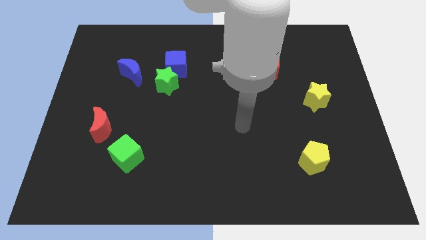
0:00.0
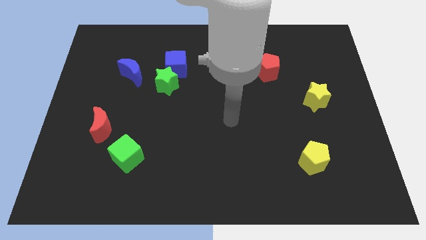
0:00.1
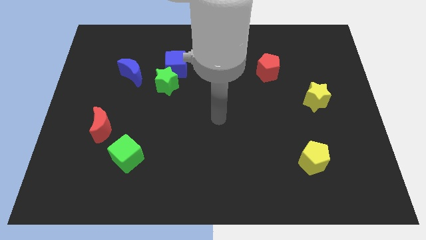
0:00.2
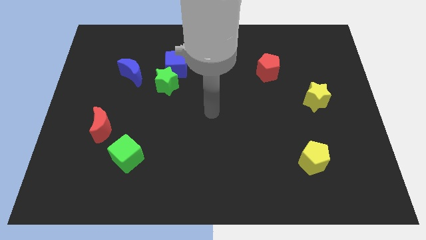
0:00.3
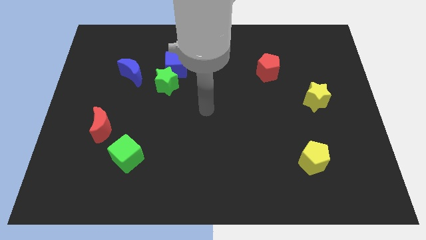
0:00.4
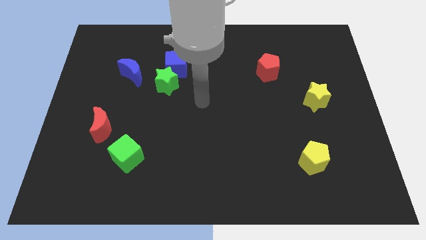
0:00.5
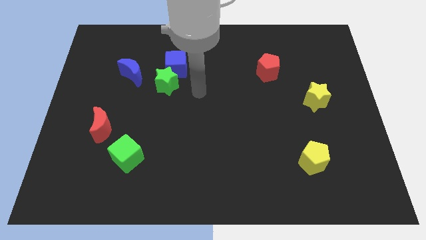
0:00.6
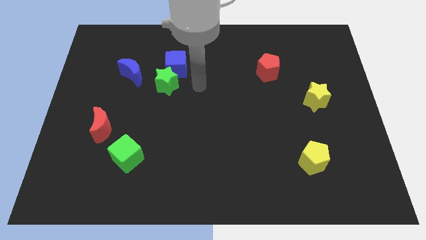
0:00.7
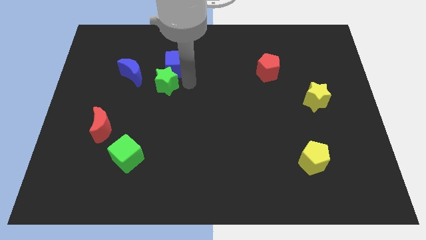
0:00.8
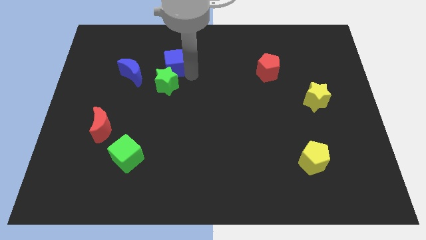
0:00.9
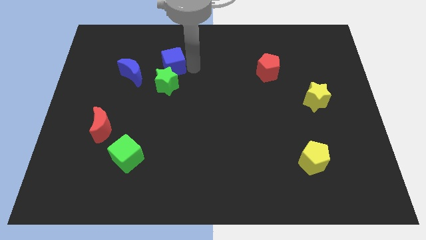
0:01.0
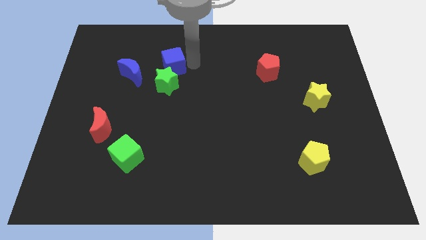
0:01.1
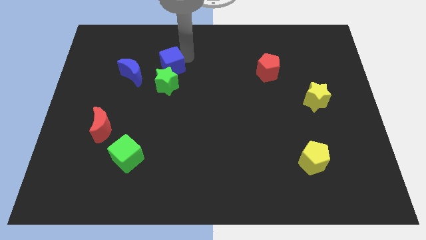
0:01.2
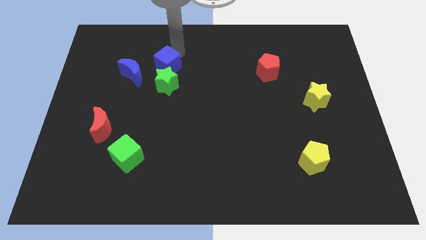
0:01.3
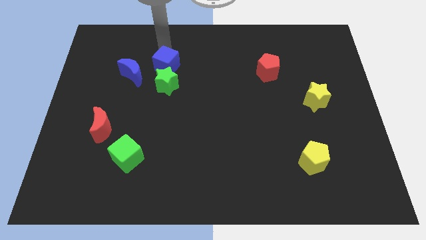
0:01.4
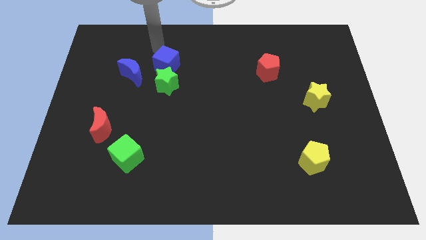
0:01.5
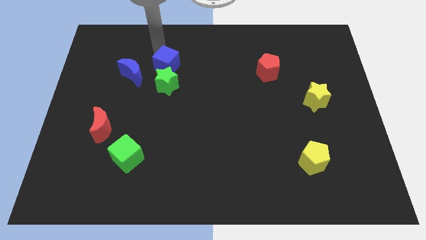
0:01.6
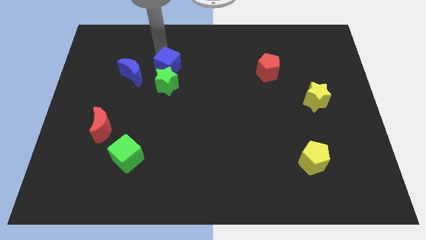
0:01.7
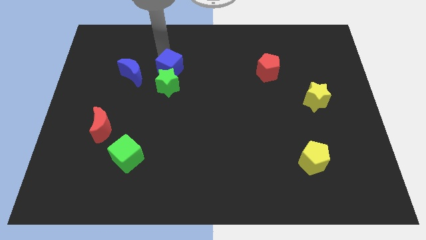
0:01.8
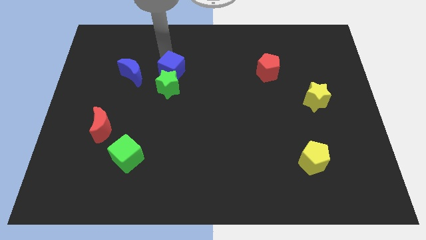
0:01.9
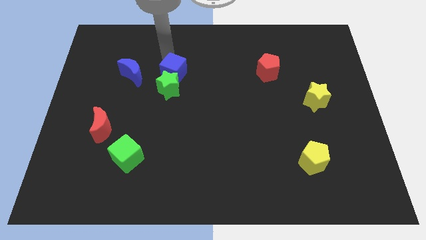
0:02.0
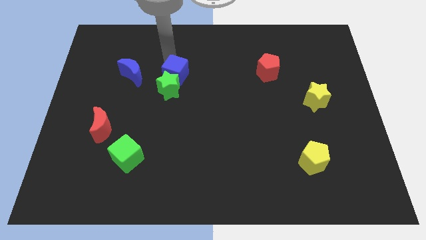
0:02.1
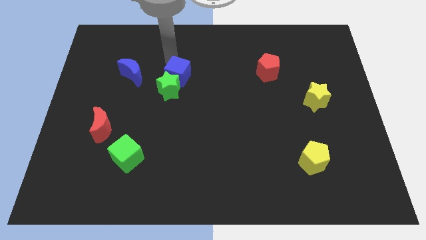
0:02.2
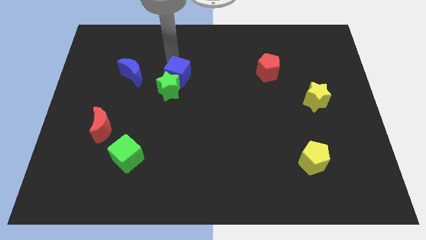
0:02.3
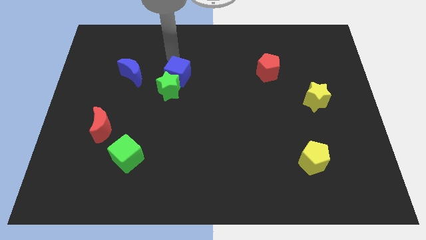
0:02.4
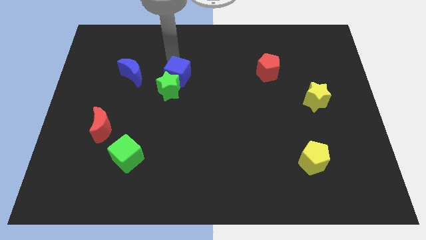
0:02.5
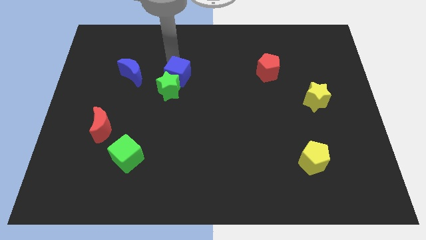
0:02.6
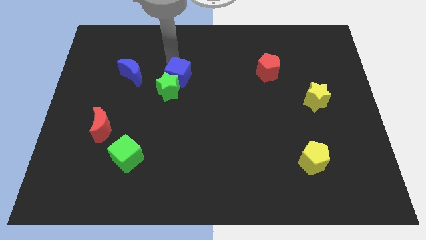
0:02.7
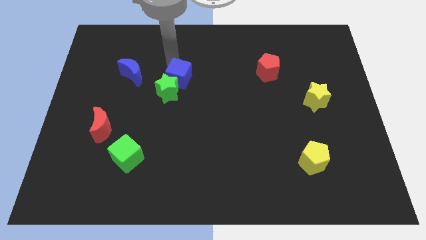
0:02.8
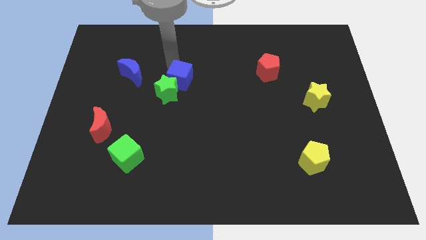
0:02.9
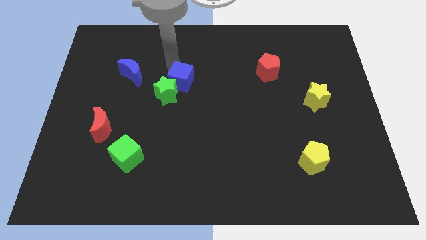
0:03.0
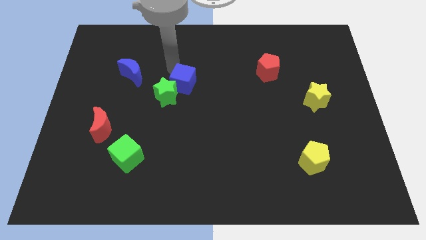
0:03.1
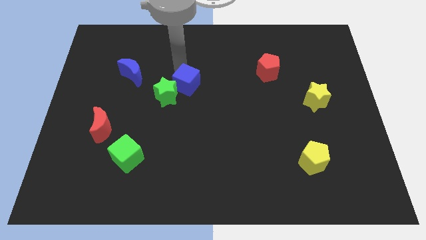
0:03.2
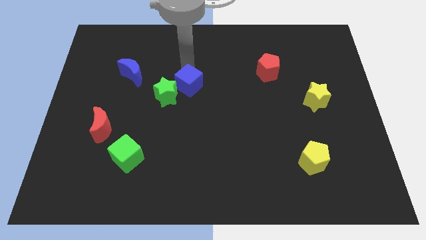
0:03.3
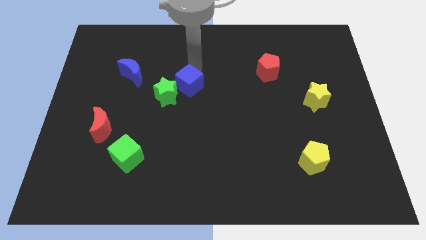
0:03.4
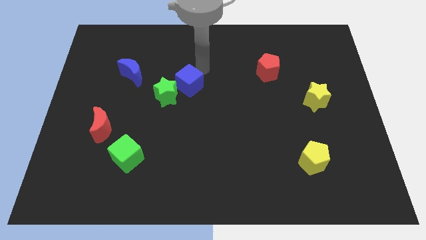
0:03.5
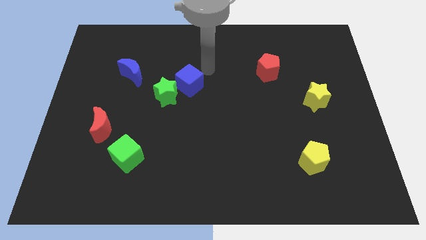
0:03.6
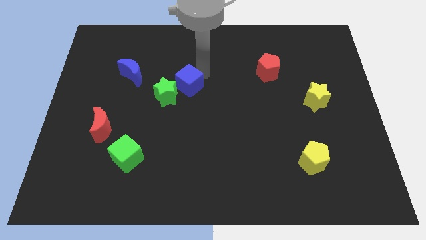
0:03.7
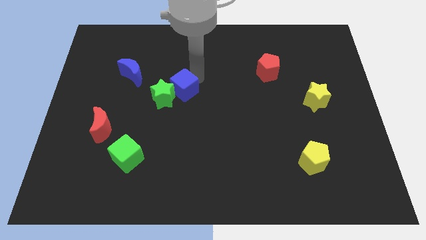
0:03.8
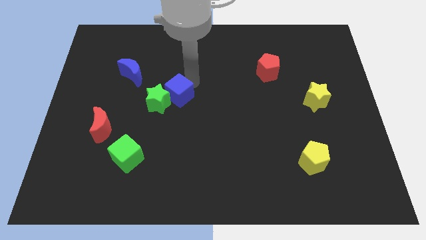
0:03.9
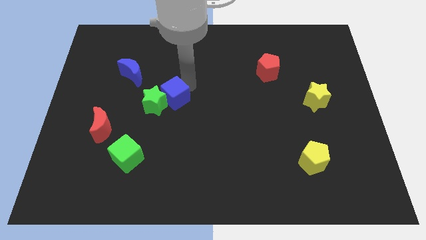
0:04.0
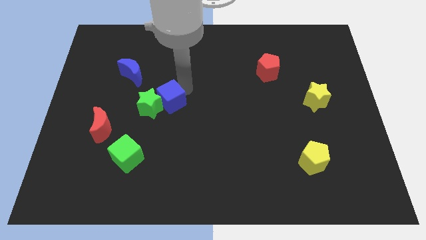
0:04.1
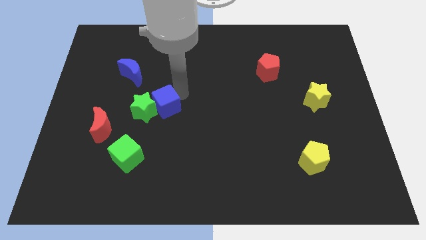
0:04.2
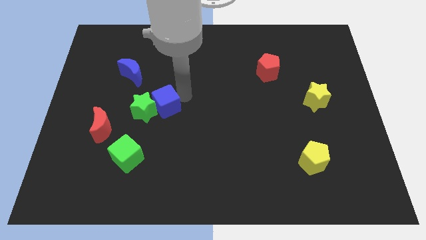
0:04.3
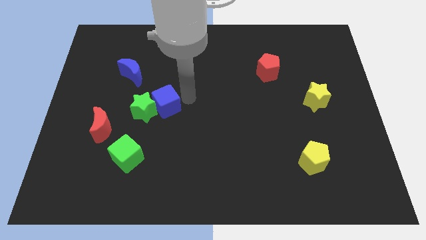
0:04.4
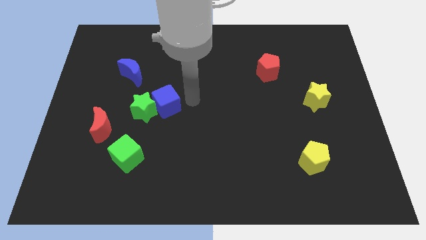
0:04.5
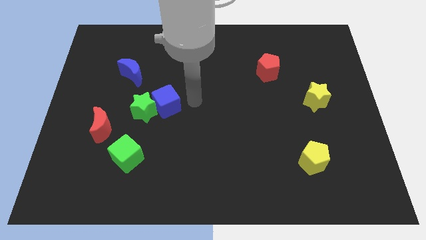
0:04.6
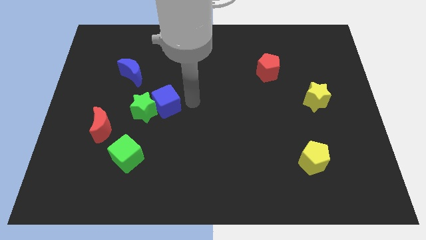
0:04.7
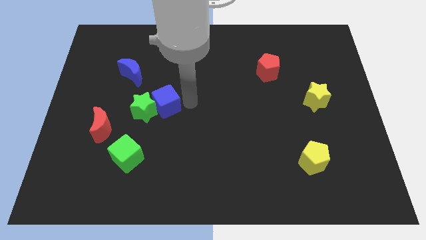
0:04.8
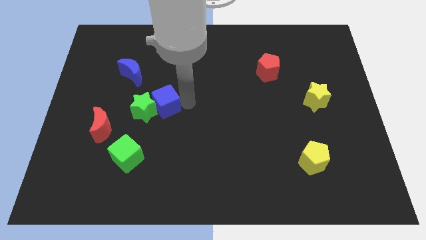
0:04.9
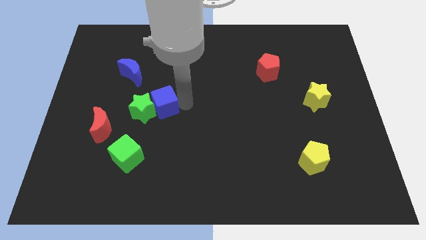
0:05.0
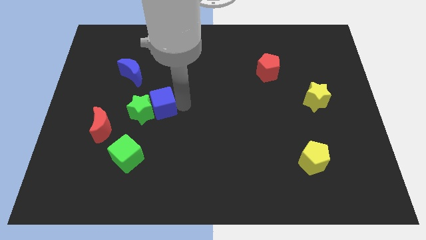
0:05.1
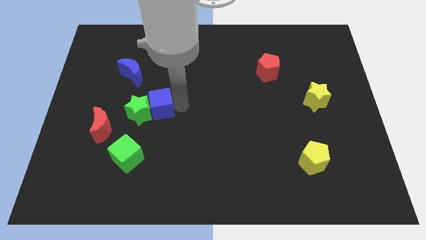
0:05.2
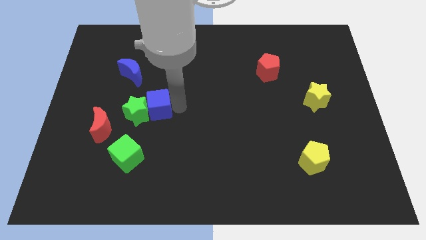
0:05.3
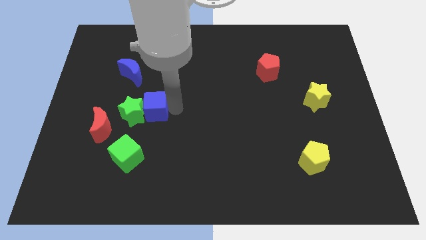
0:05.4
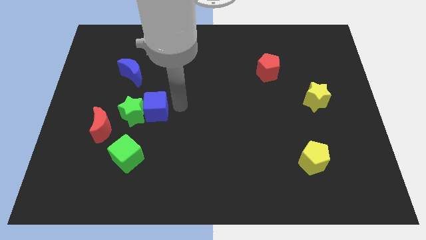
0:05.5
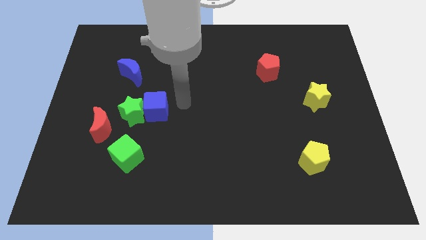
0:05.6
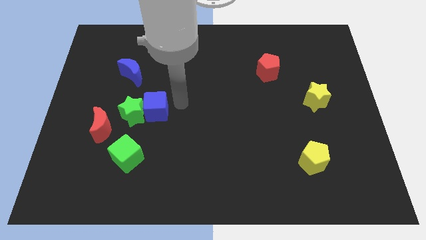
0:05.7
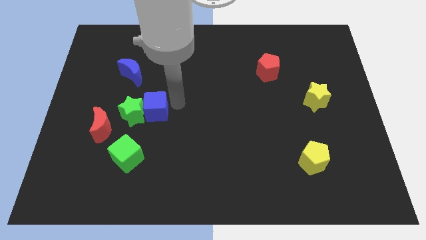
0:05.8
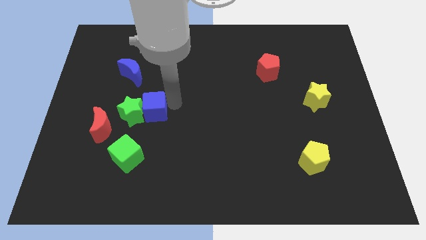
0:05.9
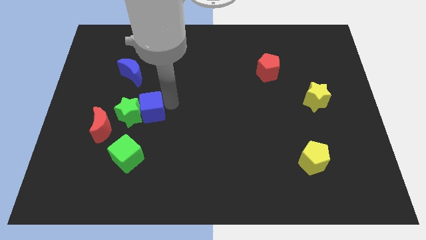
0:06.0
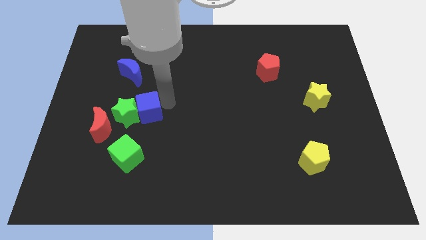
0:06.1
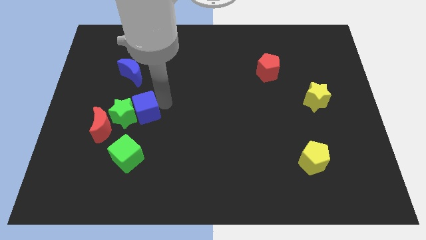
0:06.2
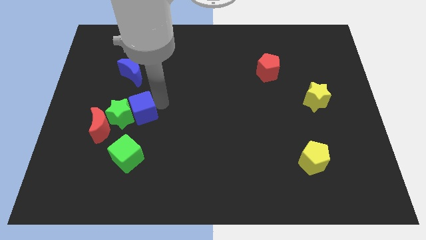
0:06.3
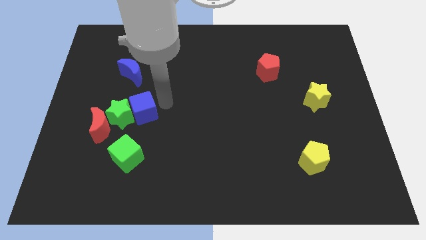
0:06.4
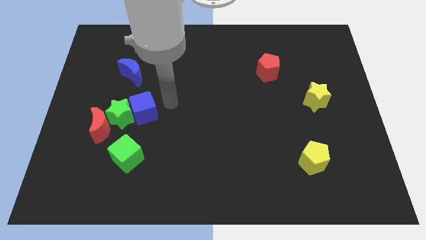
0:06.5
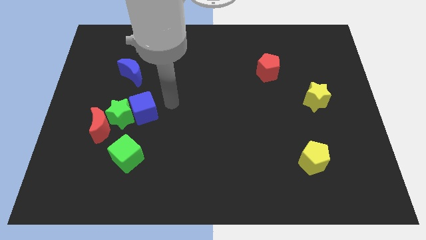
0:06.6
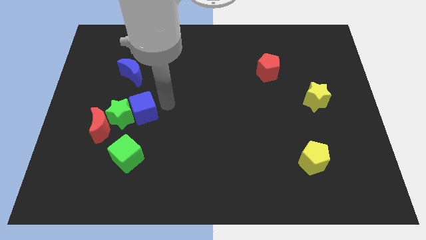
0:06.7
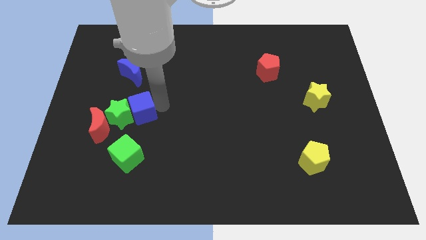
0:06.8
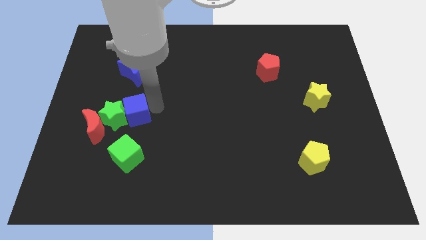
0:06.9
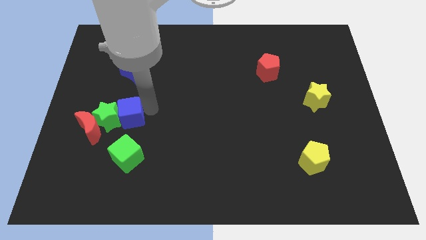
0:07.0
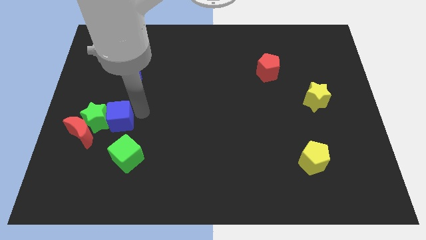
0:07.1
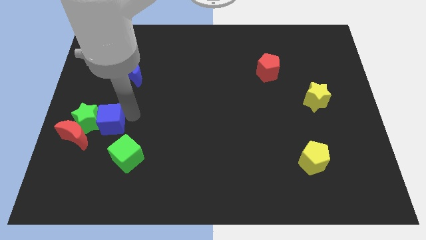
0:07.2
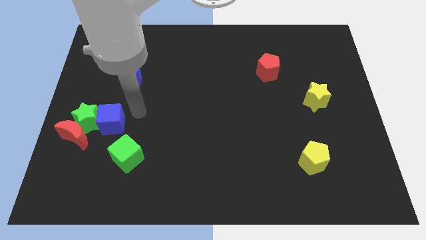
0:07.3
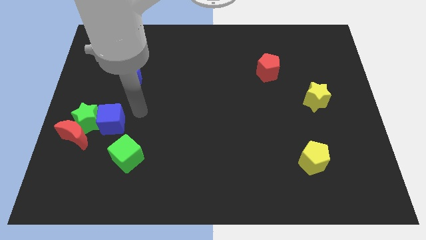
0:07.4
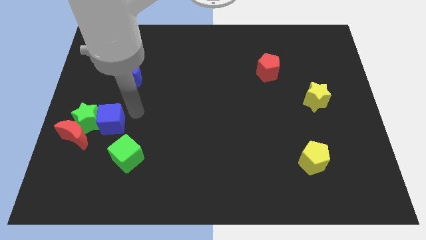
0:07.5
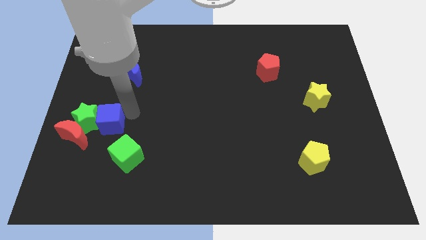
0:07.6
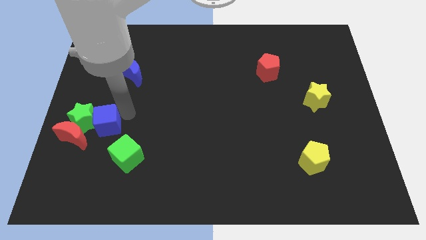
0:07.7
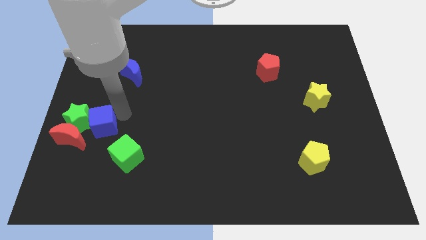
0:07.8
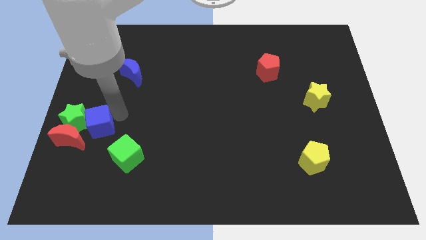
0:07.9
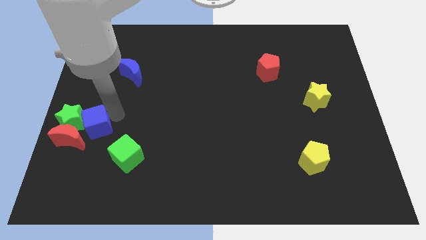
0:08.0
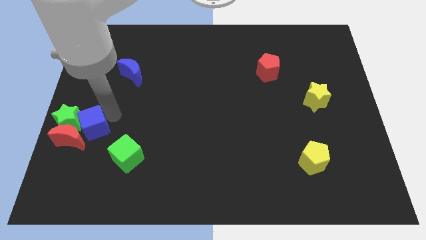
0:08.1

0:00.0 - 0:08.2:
put the blue cube next to the red moon
